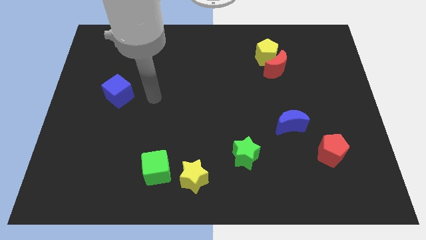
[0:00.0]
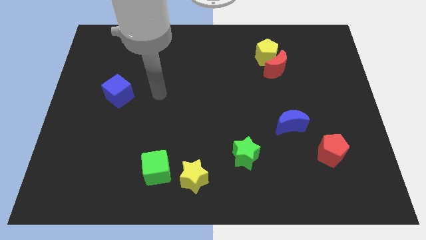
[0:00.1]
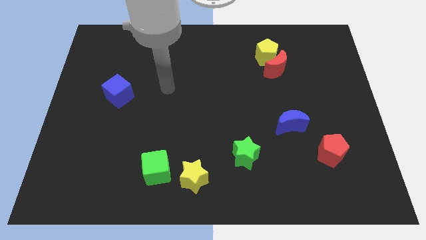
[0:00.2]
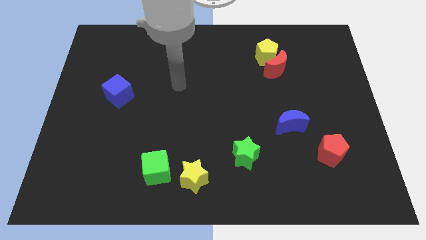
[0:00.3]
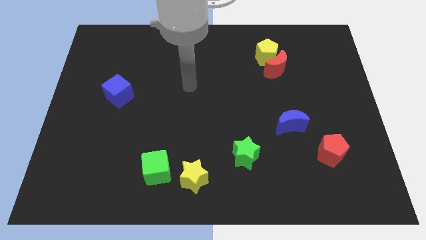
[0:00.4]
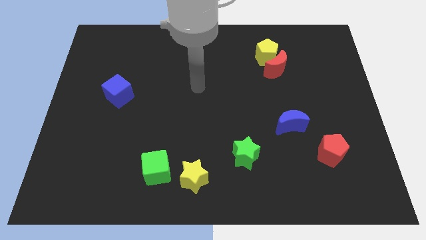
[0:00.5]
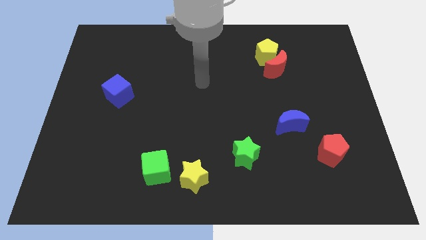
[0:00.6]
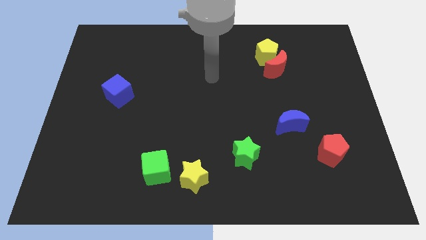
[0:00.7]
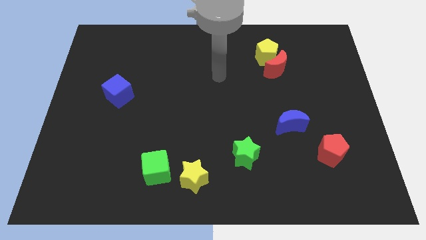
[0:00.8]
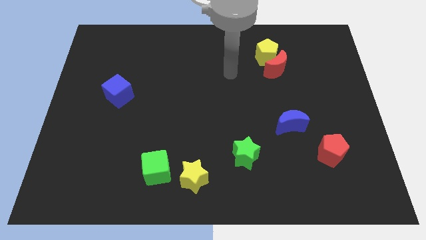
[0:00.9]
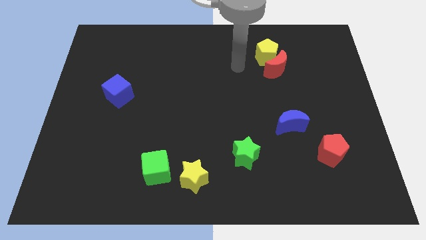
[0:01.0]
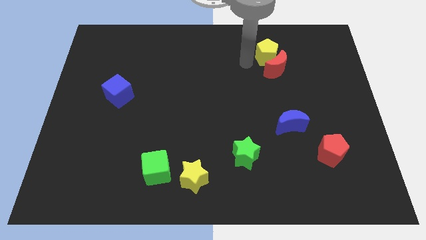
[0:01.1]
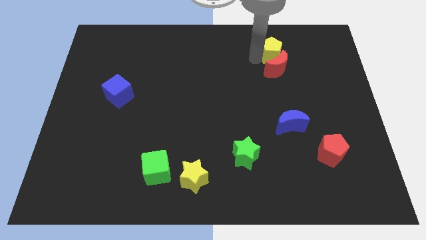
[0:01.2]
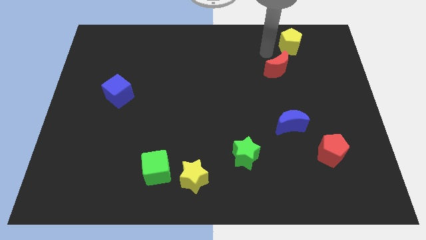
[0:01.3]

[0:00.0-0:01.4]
move the red moon away from the yellow pentagon

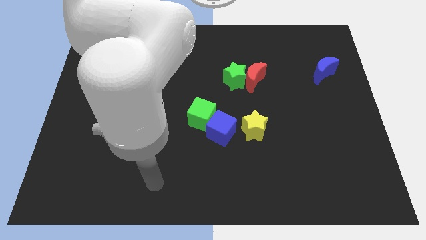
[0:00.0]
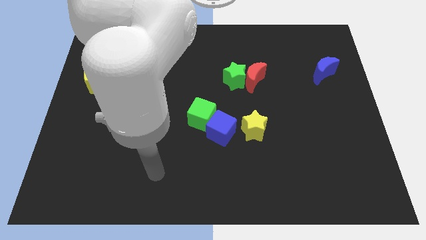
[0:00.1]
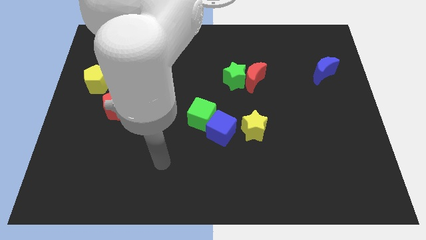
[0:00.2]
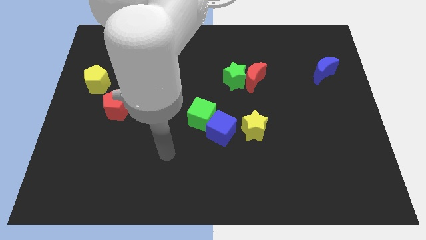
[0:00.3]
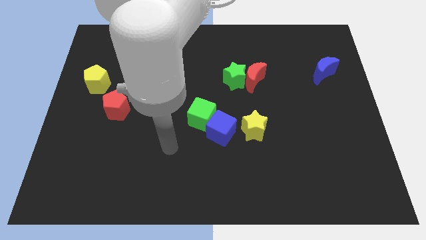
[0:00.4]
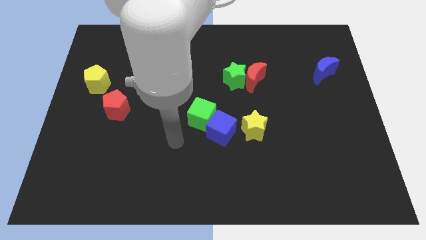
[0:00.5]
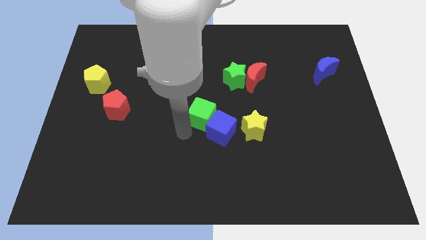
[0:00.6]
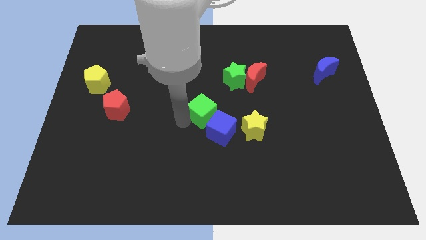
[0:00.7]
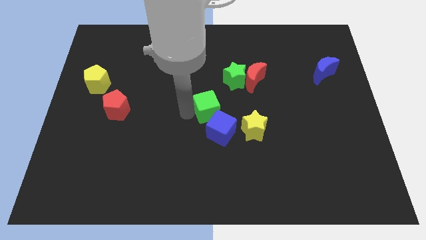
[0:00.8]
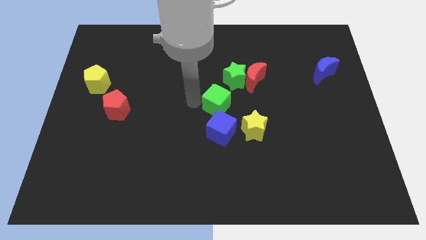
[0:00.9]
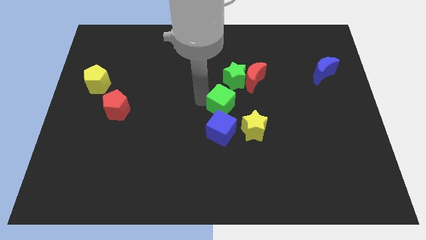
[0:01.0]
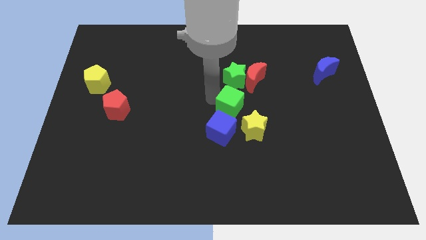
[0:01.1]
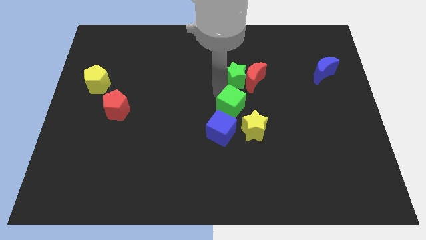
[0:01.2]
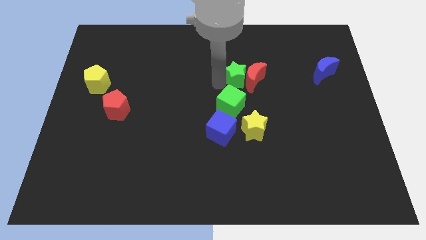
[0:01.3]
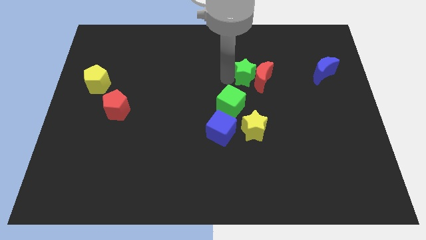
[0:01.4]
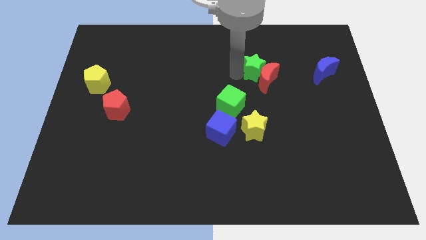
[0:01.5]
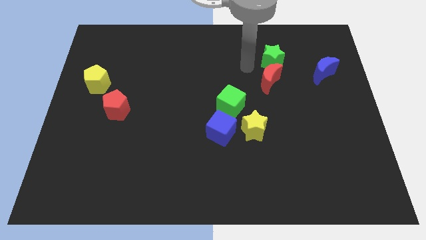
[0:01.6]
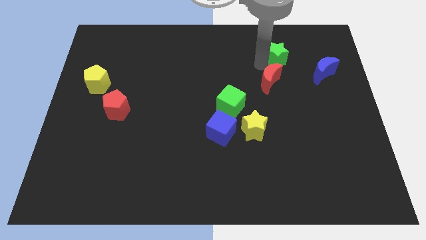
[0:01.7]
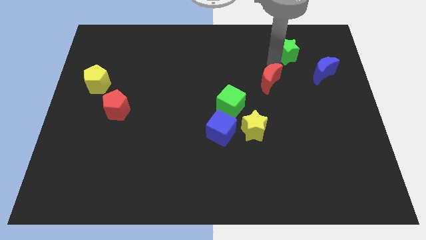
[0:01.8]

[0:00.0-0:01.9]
move the red moon away from the green star

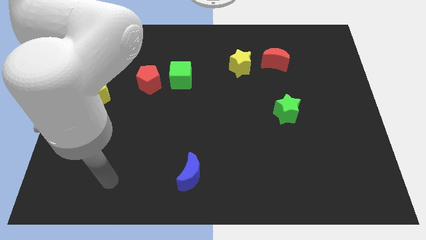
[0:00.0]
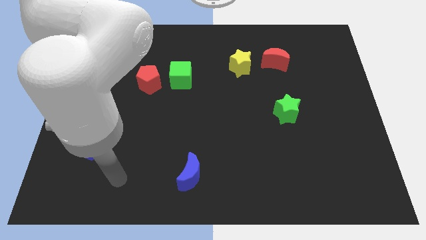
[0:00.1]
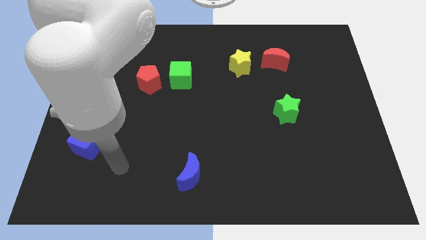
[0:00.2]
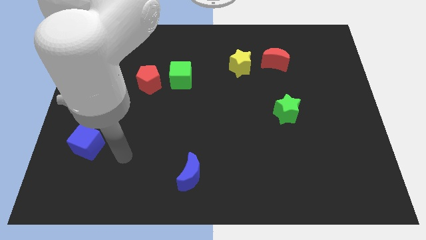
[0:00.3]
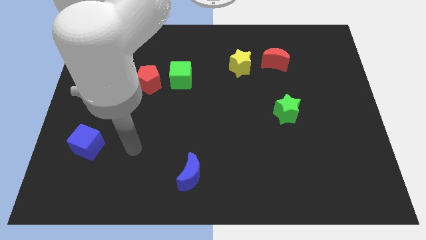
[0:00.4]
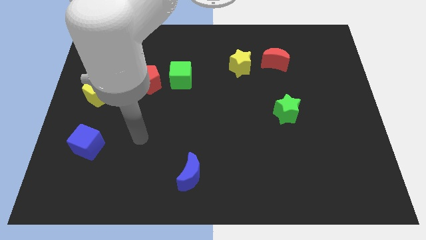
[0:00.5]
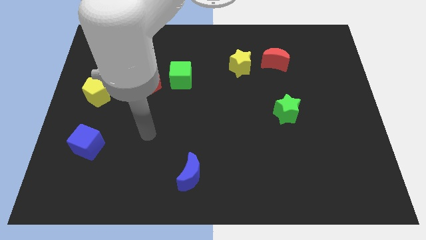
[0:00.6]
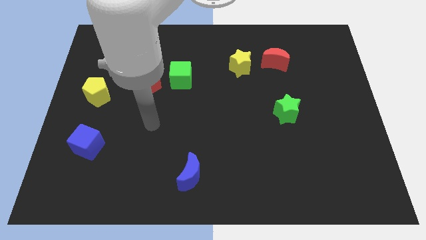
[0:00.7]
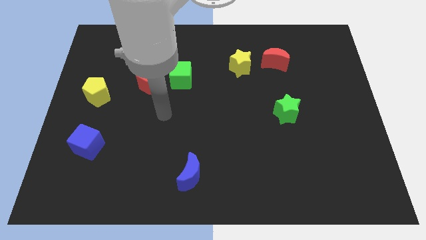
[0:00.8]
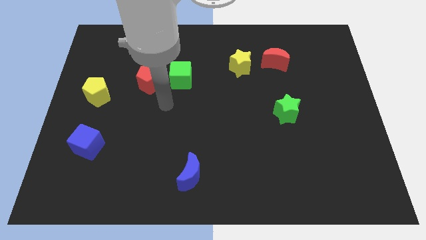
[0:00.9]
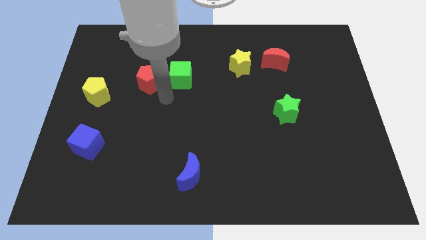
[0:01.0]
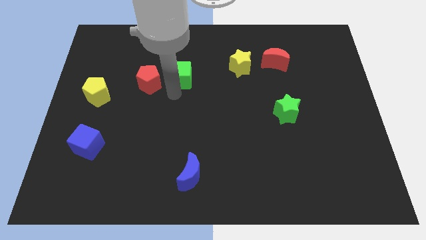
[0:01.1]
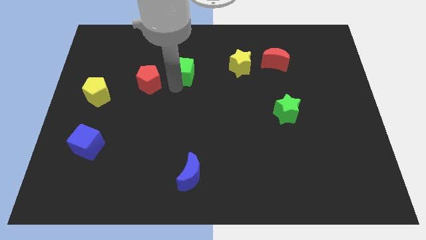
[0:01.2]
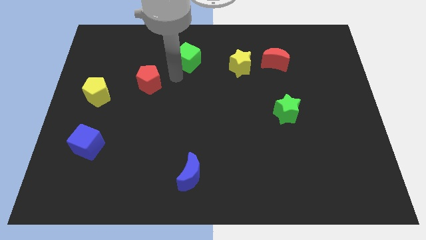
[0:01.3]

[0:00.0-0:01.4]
move the red pentagon away from the green cube

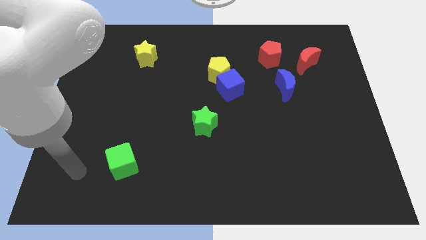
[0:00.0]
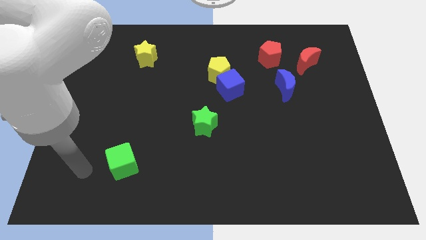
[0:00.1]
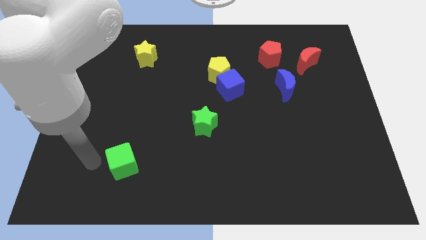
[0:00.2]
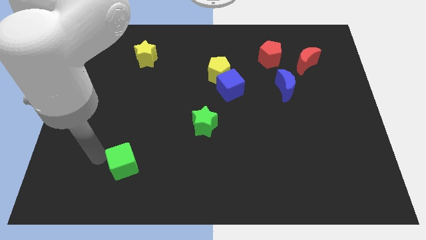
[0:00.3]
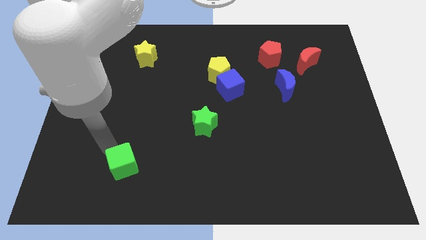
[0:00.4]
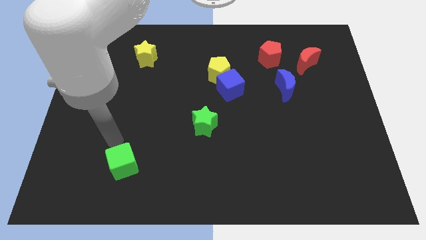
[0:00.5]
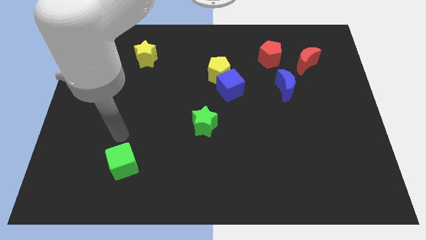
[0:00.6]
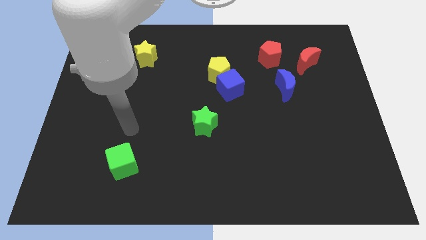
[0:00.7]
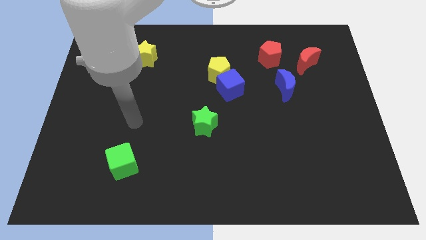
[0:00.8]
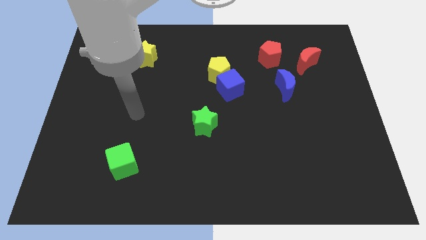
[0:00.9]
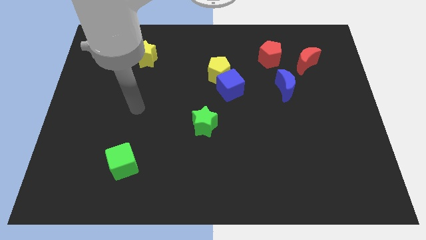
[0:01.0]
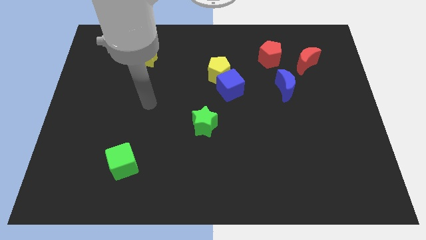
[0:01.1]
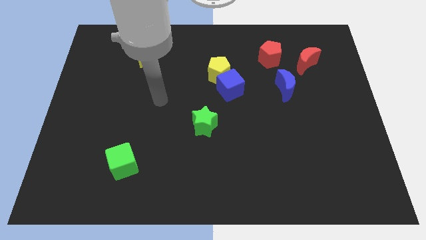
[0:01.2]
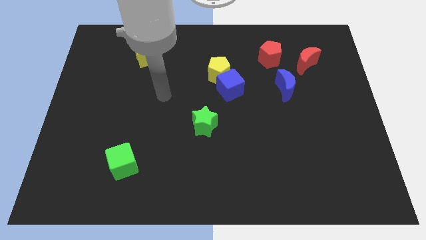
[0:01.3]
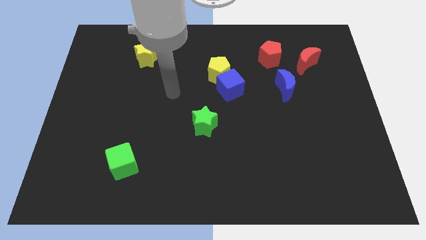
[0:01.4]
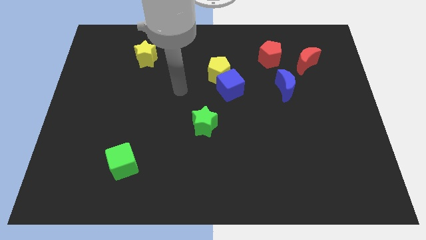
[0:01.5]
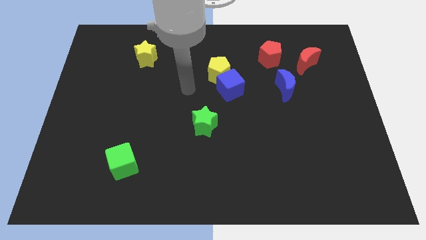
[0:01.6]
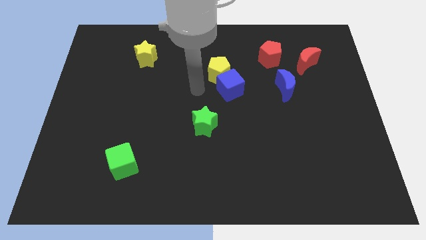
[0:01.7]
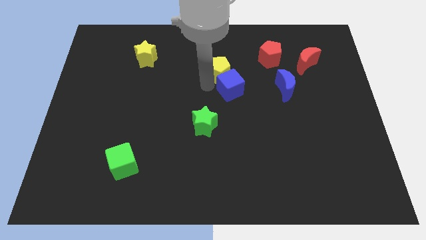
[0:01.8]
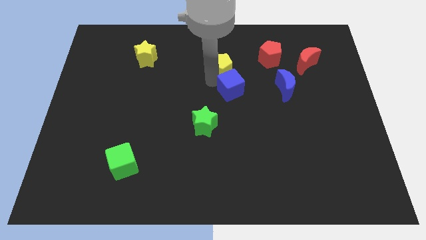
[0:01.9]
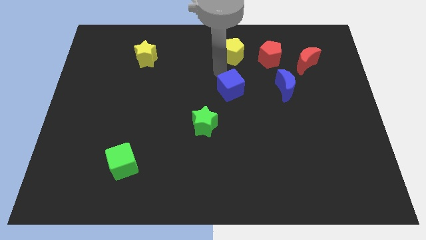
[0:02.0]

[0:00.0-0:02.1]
separate the blue cube from the yellow pentagon

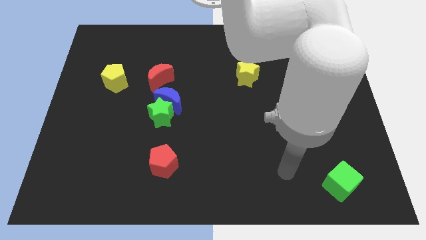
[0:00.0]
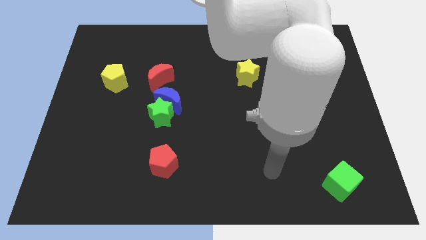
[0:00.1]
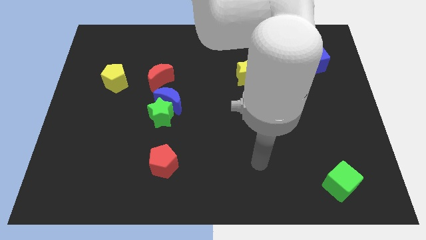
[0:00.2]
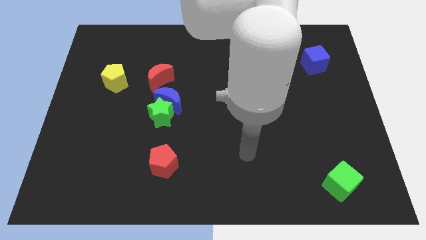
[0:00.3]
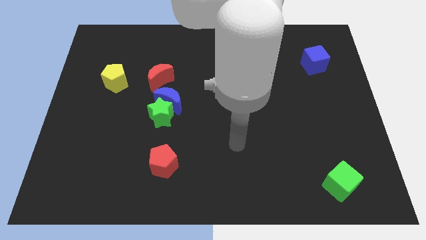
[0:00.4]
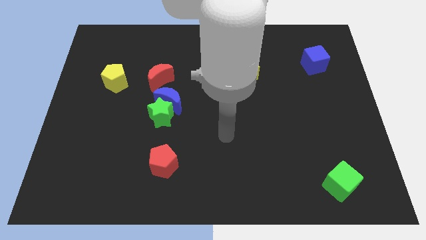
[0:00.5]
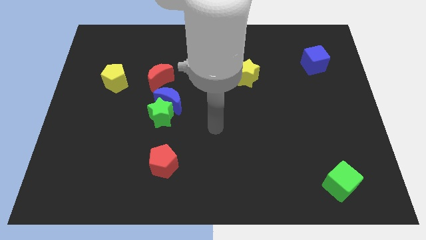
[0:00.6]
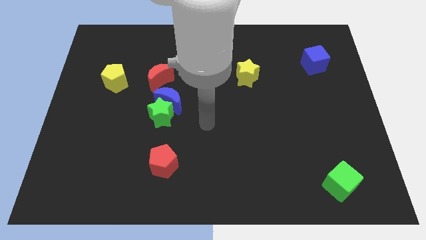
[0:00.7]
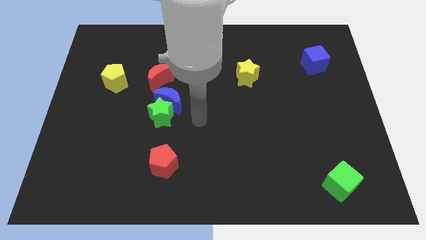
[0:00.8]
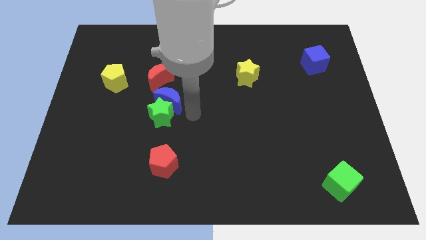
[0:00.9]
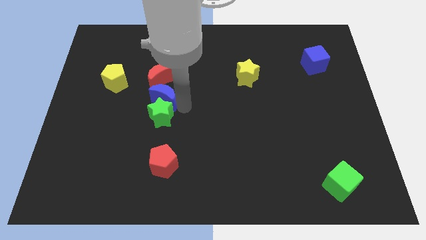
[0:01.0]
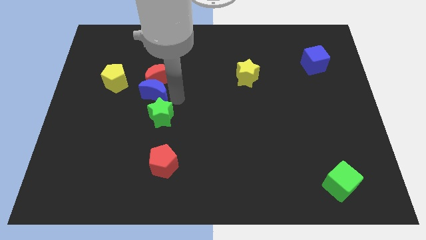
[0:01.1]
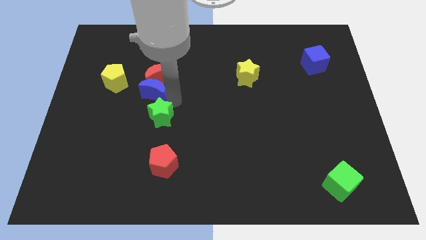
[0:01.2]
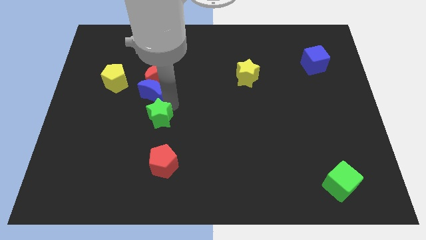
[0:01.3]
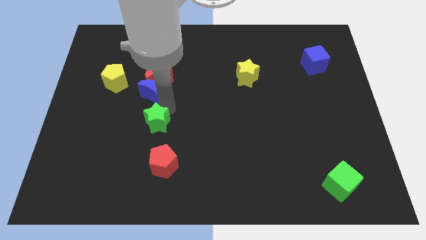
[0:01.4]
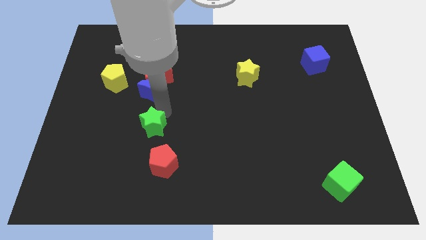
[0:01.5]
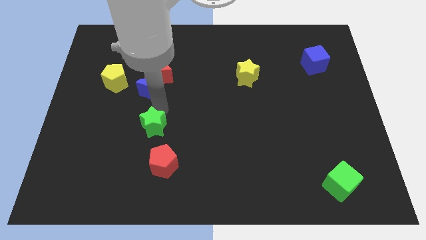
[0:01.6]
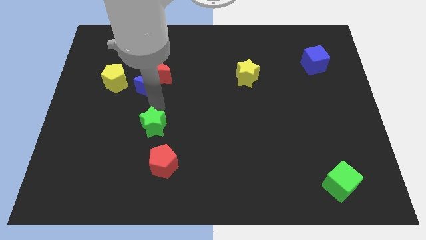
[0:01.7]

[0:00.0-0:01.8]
pull the green star apart from the blue moon

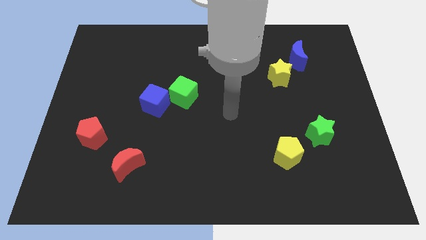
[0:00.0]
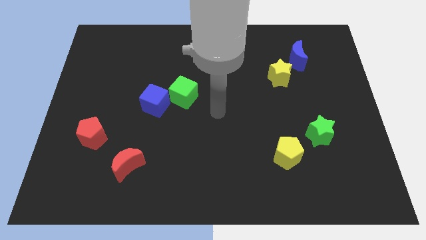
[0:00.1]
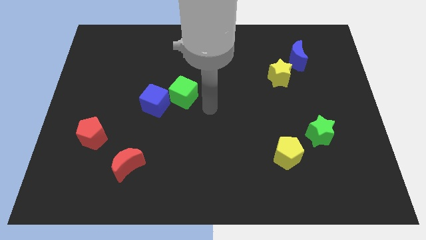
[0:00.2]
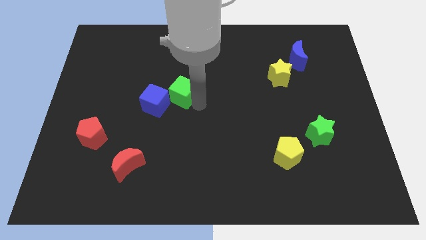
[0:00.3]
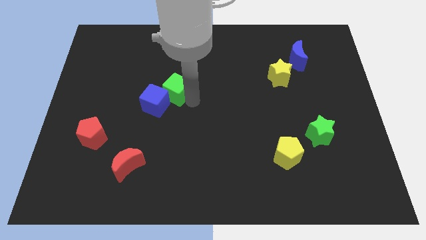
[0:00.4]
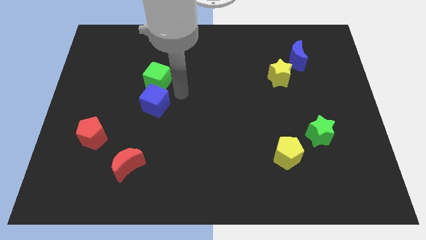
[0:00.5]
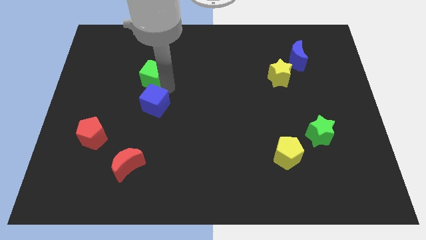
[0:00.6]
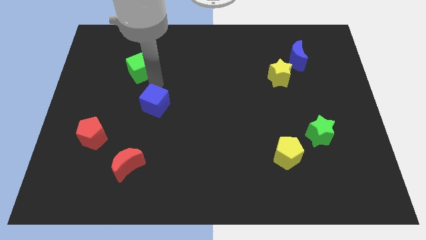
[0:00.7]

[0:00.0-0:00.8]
move the blue cube away from the green cube
